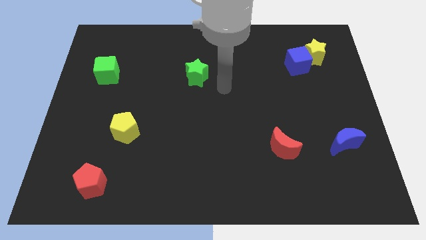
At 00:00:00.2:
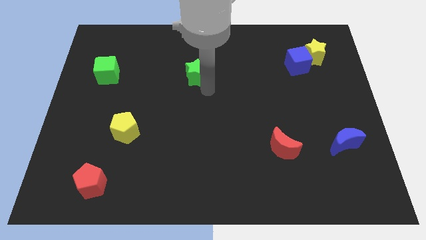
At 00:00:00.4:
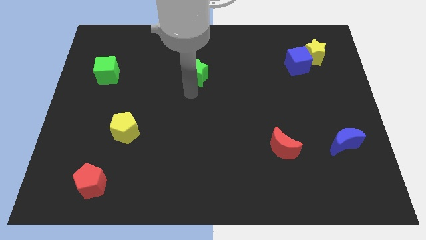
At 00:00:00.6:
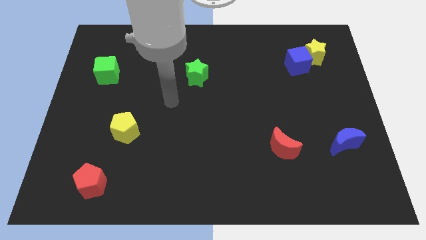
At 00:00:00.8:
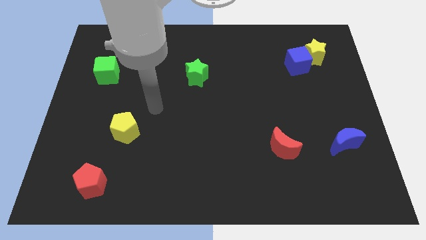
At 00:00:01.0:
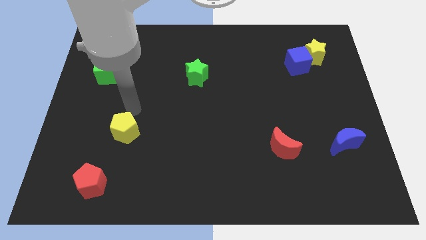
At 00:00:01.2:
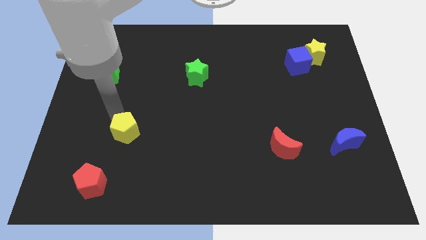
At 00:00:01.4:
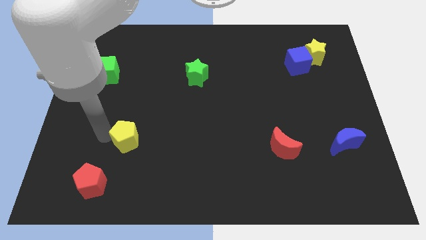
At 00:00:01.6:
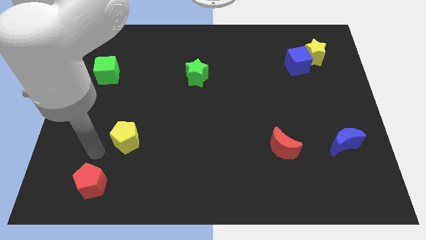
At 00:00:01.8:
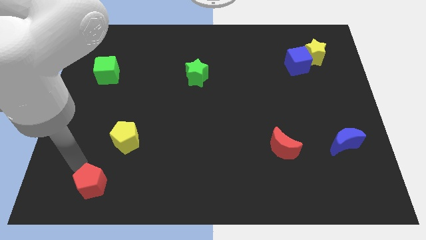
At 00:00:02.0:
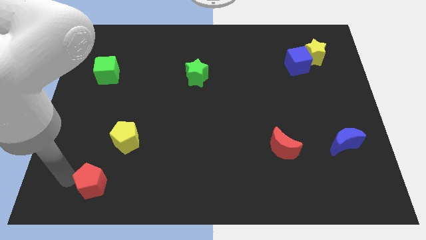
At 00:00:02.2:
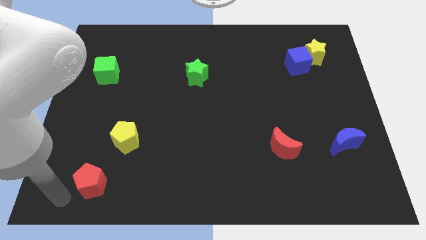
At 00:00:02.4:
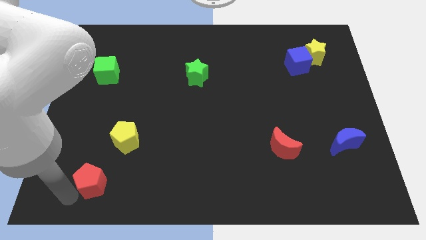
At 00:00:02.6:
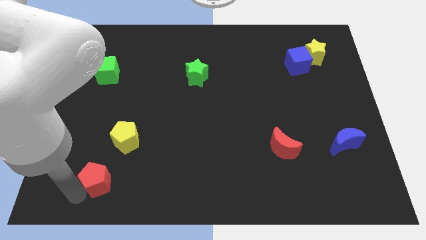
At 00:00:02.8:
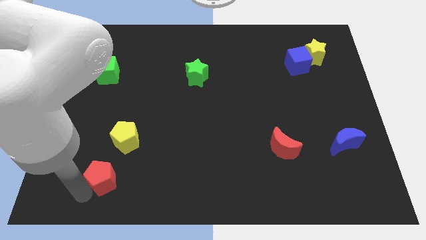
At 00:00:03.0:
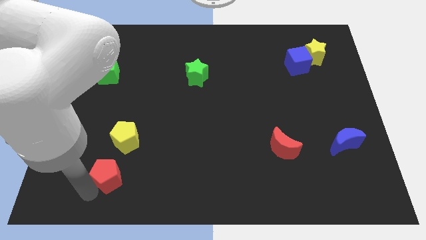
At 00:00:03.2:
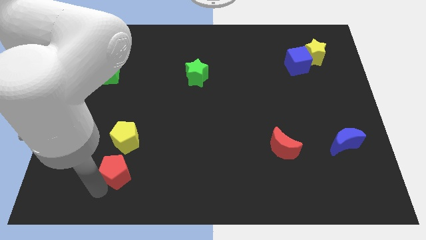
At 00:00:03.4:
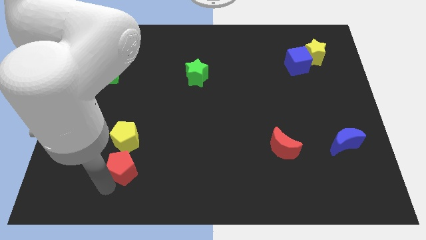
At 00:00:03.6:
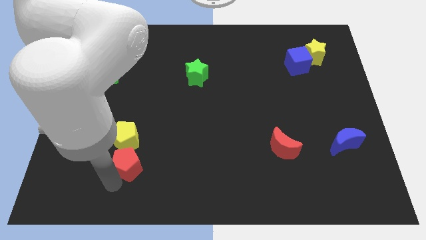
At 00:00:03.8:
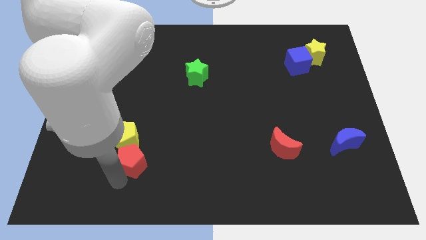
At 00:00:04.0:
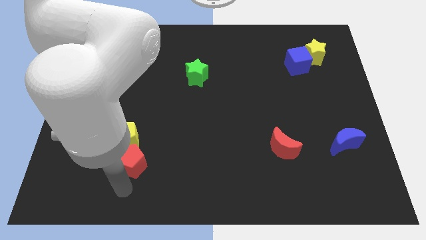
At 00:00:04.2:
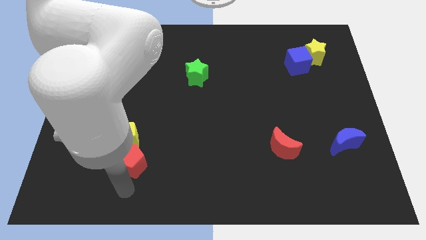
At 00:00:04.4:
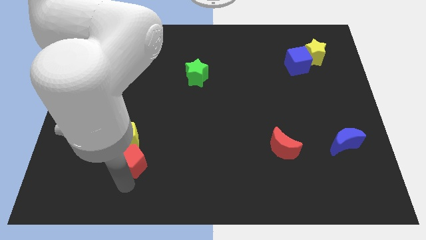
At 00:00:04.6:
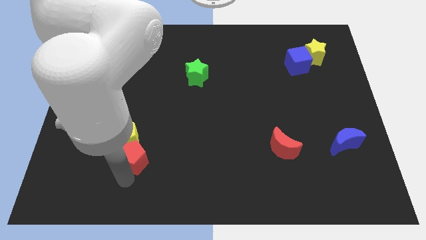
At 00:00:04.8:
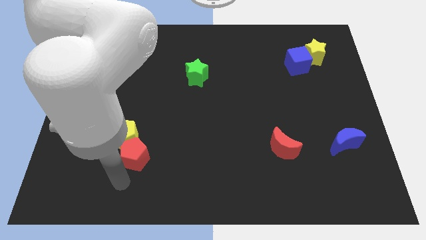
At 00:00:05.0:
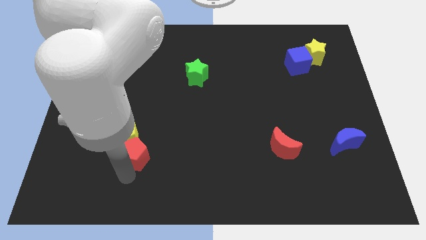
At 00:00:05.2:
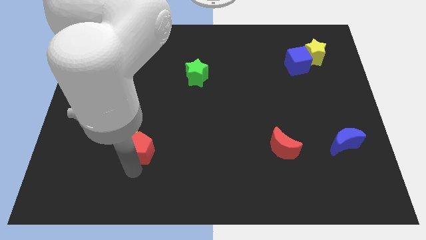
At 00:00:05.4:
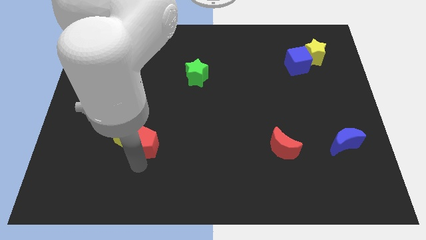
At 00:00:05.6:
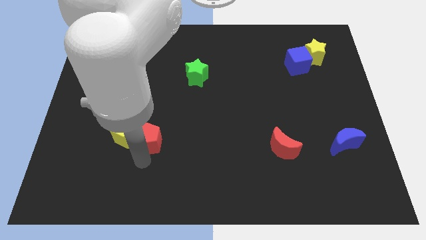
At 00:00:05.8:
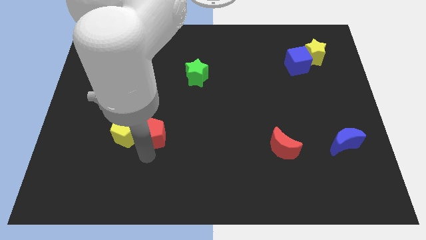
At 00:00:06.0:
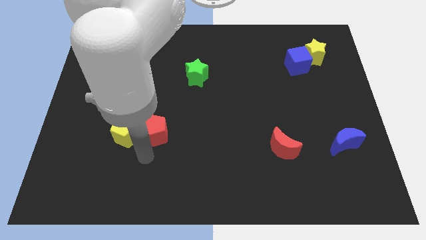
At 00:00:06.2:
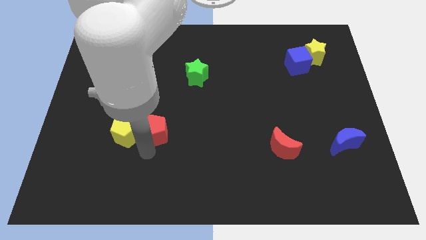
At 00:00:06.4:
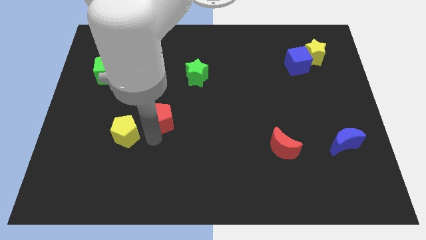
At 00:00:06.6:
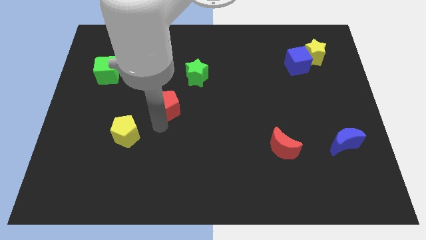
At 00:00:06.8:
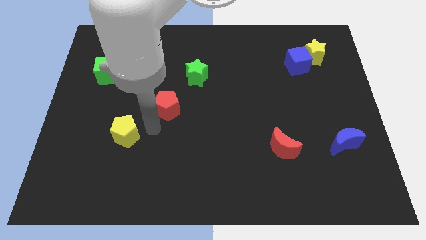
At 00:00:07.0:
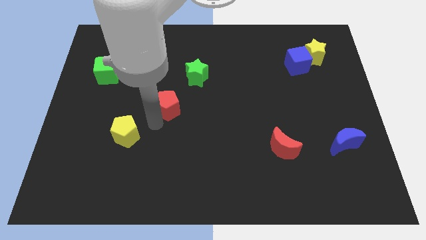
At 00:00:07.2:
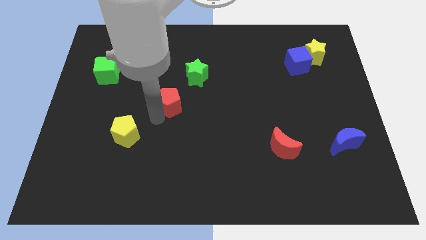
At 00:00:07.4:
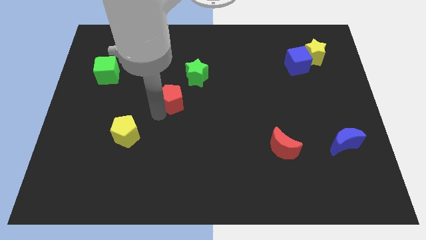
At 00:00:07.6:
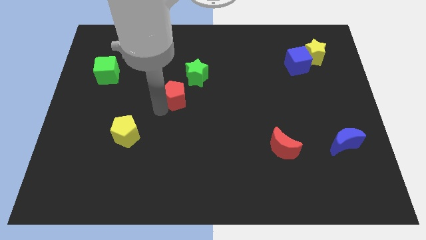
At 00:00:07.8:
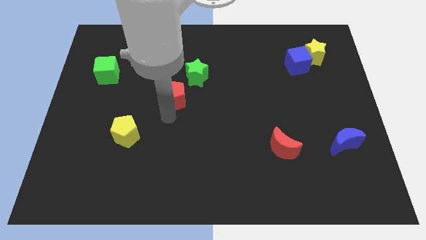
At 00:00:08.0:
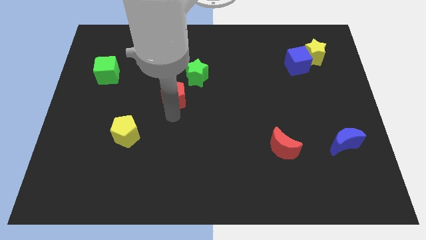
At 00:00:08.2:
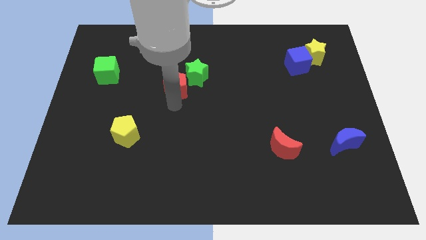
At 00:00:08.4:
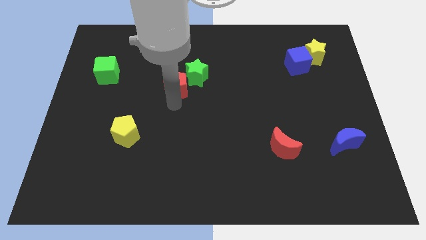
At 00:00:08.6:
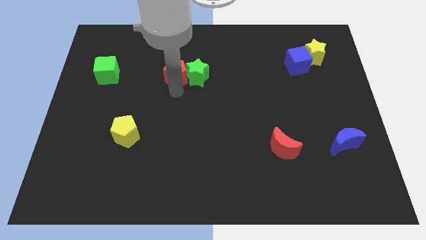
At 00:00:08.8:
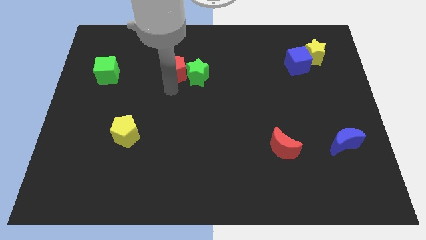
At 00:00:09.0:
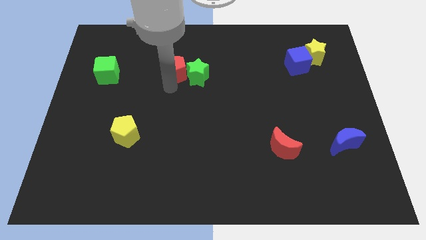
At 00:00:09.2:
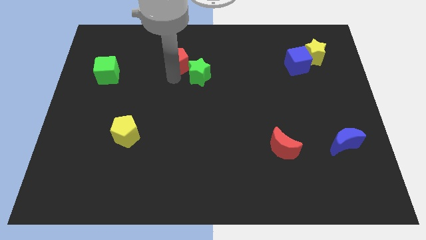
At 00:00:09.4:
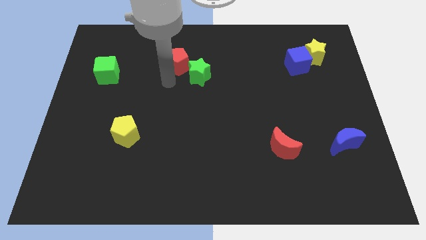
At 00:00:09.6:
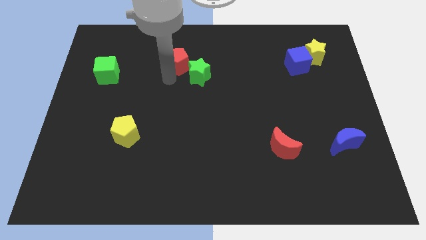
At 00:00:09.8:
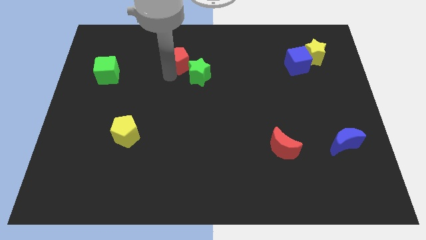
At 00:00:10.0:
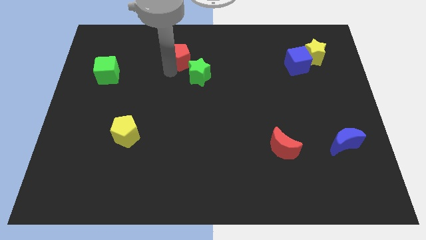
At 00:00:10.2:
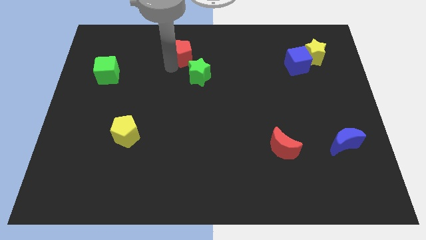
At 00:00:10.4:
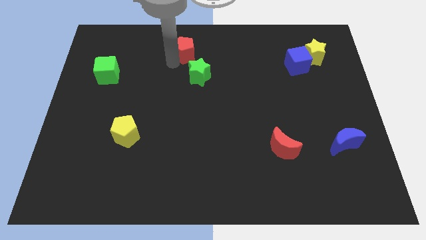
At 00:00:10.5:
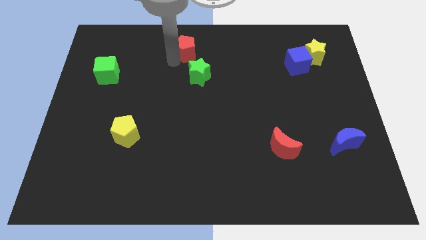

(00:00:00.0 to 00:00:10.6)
move the red pentagon to the top
